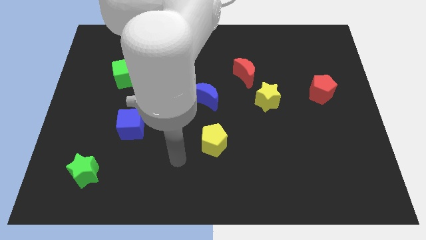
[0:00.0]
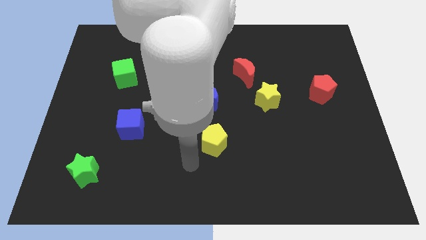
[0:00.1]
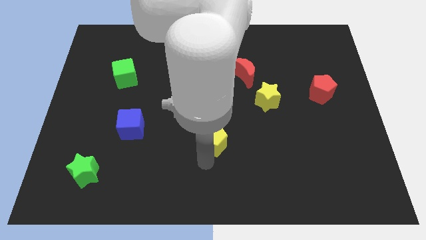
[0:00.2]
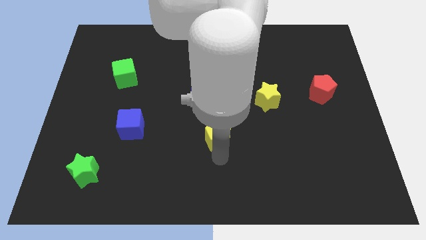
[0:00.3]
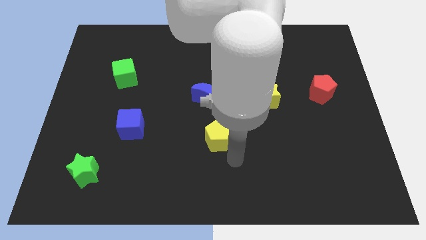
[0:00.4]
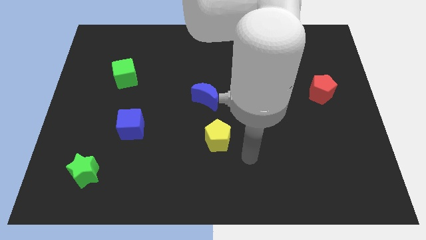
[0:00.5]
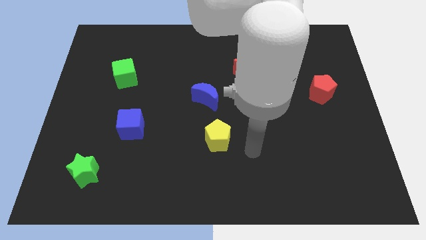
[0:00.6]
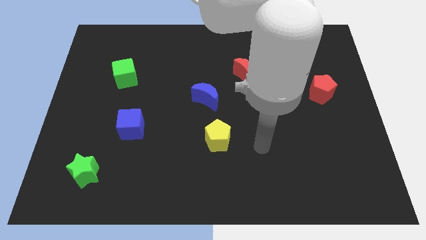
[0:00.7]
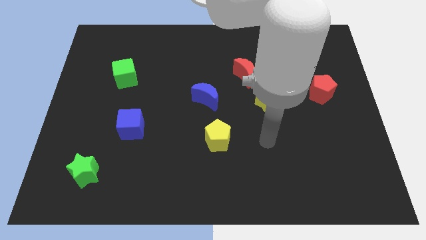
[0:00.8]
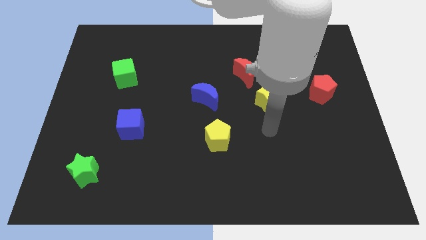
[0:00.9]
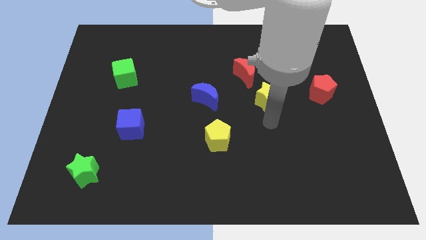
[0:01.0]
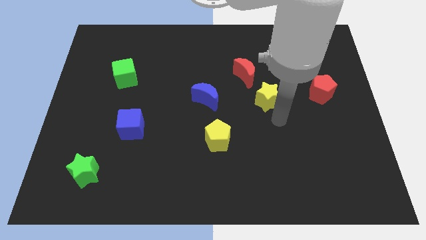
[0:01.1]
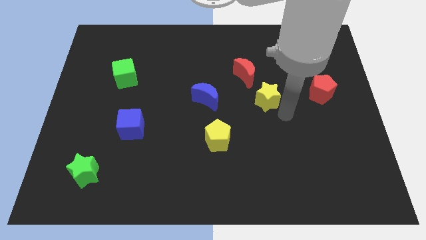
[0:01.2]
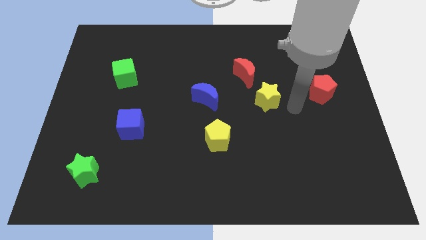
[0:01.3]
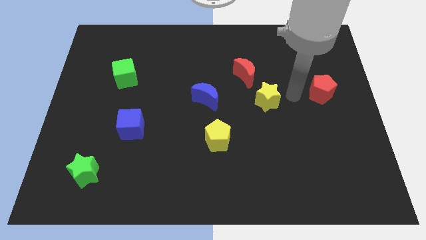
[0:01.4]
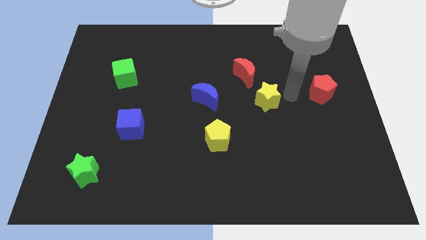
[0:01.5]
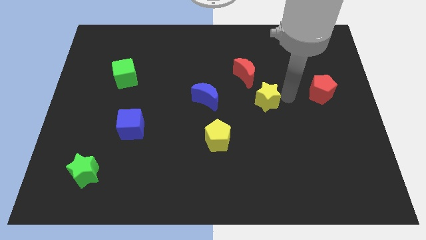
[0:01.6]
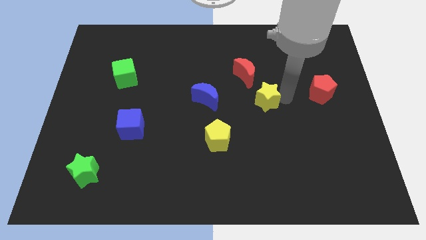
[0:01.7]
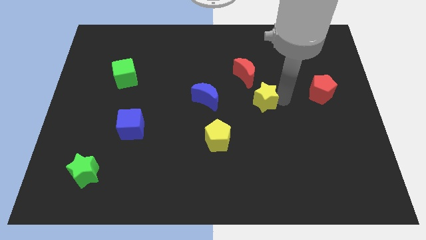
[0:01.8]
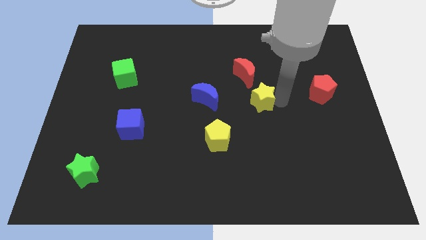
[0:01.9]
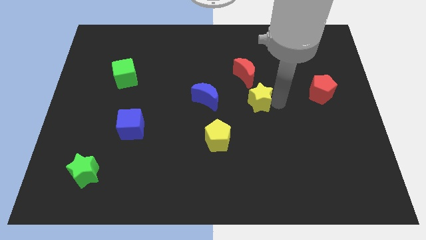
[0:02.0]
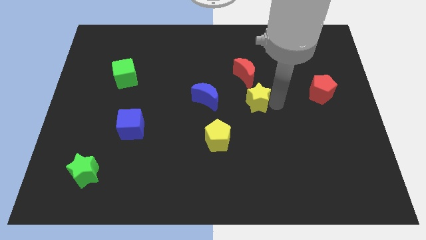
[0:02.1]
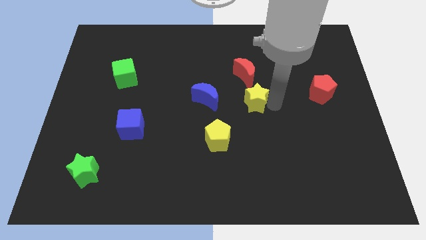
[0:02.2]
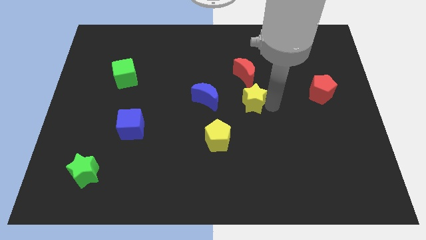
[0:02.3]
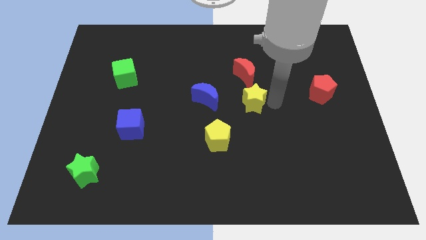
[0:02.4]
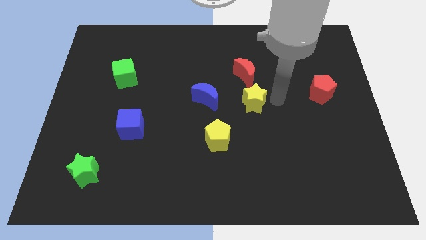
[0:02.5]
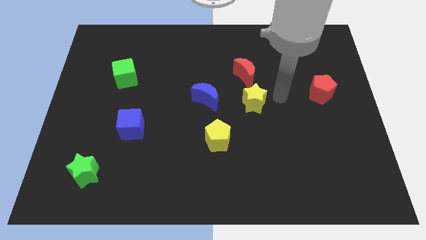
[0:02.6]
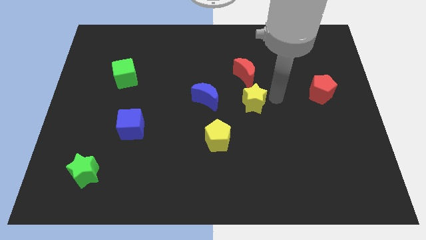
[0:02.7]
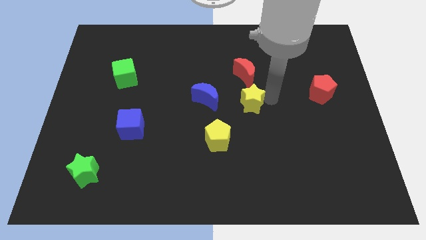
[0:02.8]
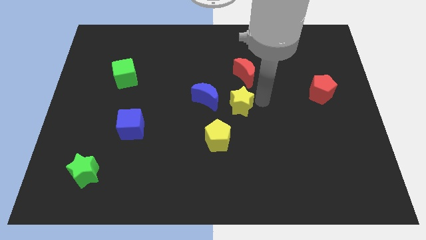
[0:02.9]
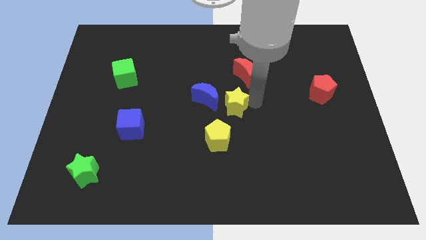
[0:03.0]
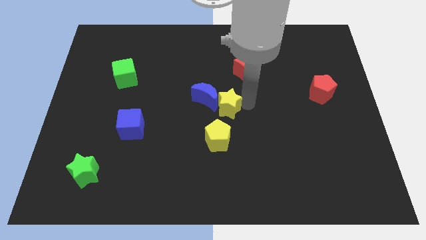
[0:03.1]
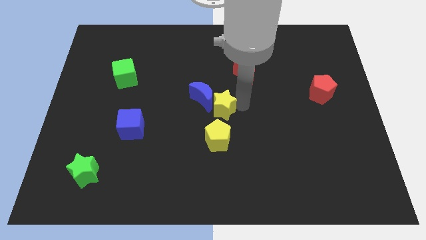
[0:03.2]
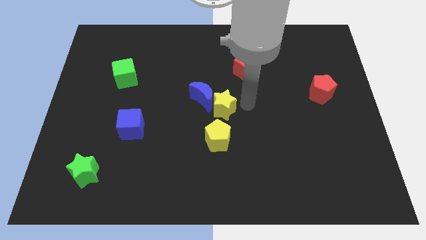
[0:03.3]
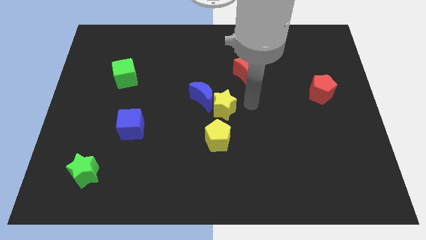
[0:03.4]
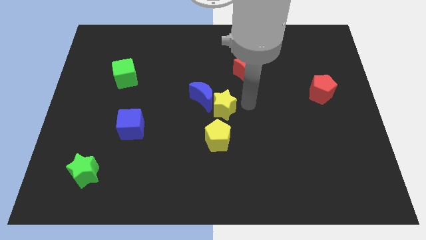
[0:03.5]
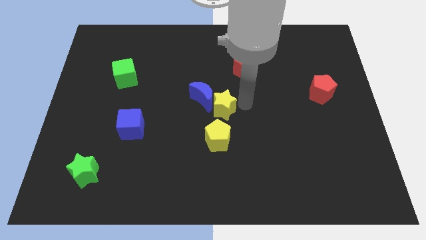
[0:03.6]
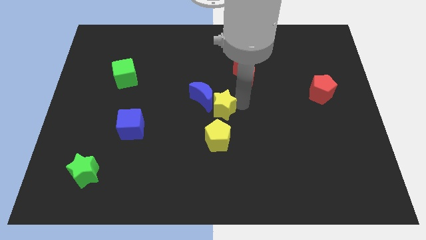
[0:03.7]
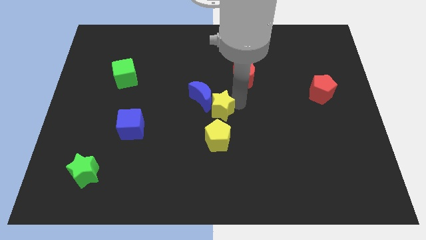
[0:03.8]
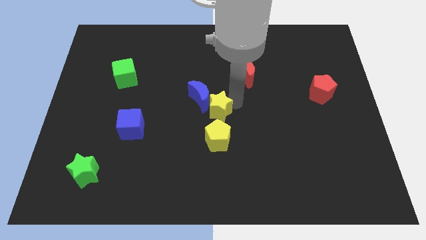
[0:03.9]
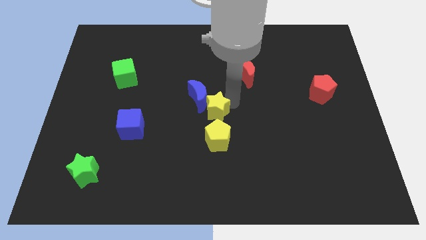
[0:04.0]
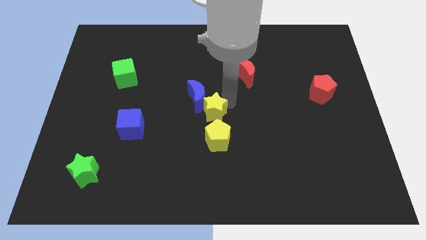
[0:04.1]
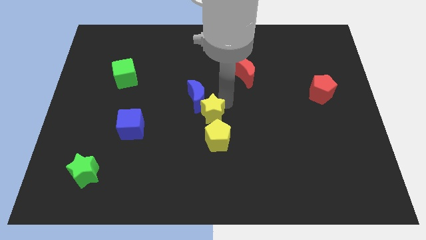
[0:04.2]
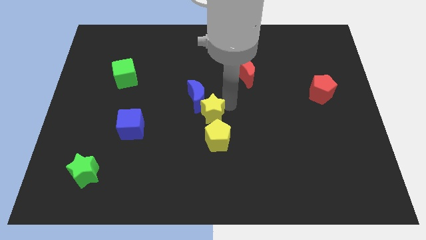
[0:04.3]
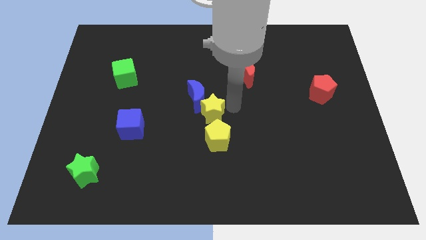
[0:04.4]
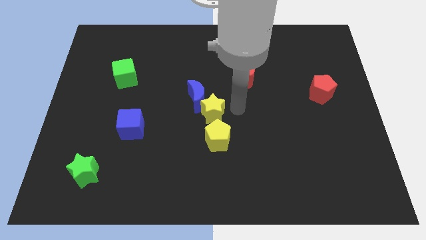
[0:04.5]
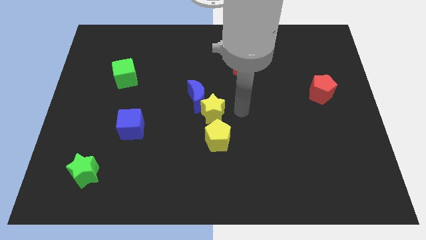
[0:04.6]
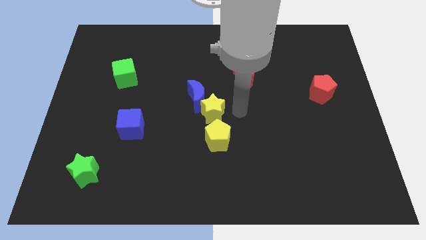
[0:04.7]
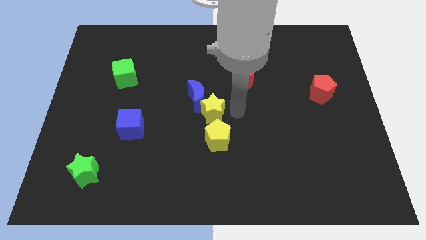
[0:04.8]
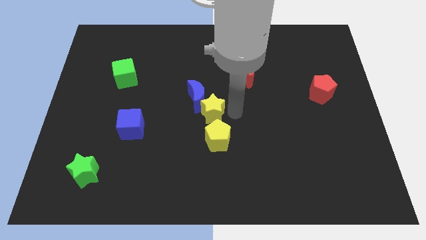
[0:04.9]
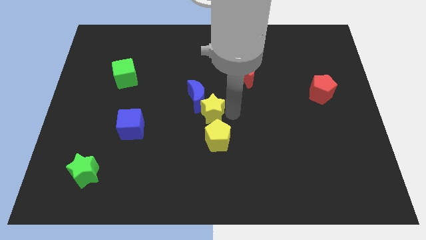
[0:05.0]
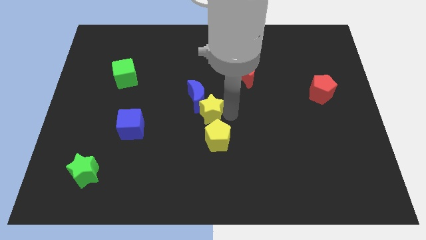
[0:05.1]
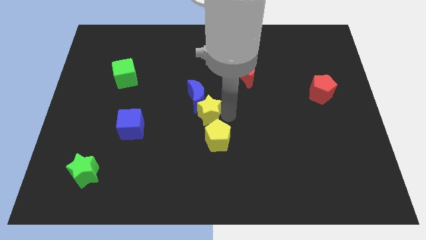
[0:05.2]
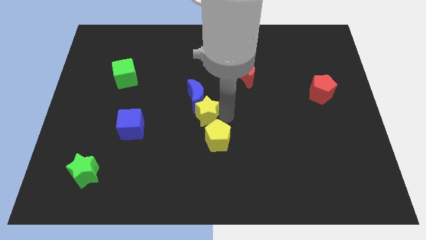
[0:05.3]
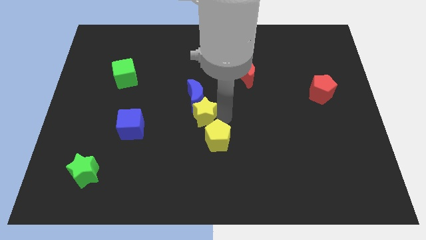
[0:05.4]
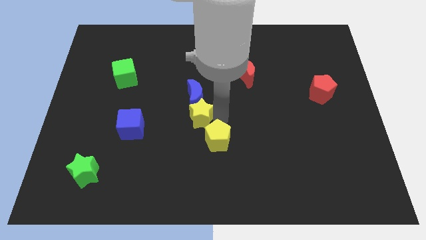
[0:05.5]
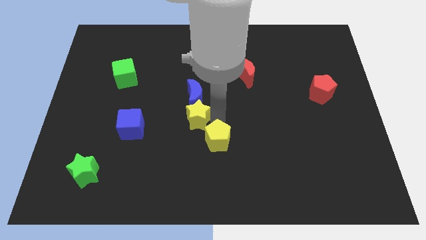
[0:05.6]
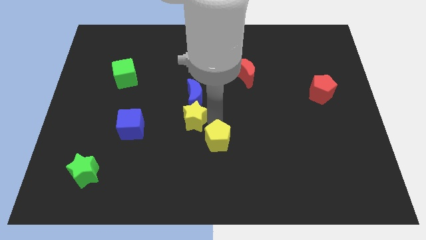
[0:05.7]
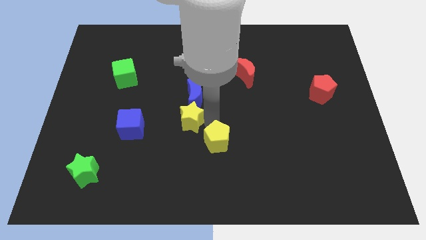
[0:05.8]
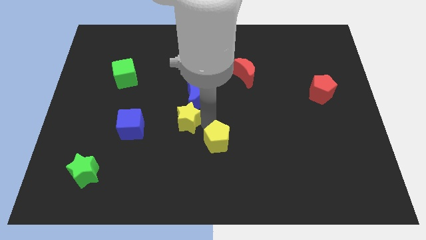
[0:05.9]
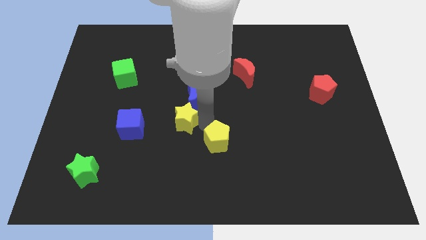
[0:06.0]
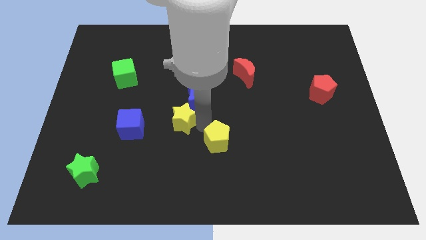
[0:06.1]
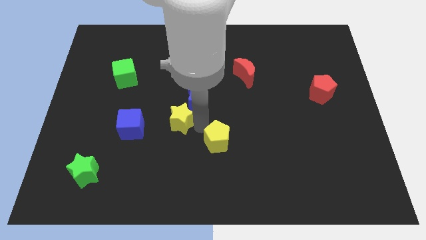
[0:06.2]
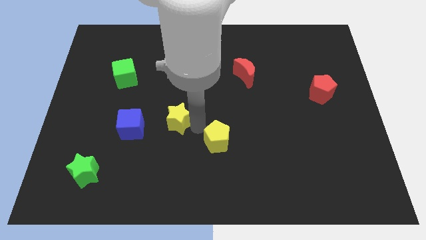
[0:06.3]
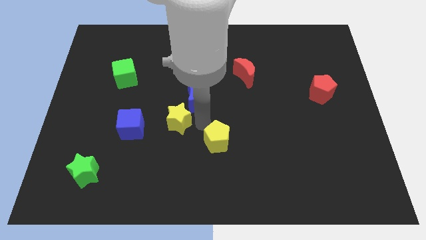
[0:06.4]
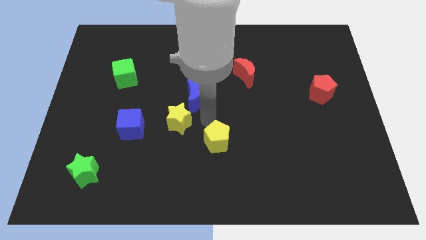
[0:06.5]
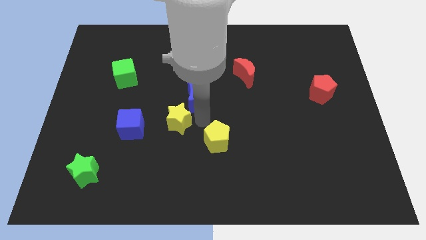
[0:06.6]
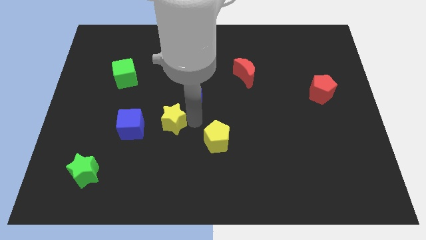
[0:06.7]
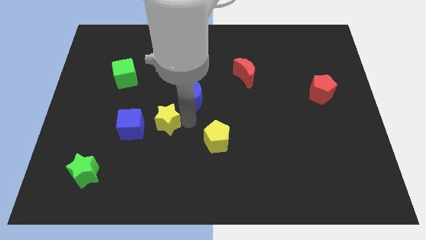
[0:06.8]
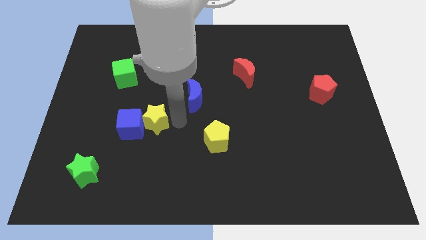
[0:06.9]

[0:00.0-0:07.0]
put the yellow star towards the blue cube

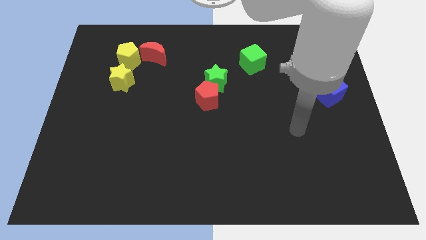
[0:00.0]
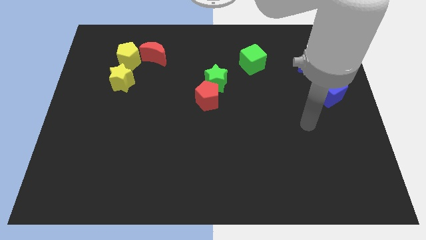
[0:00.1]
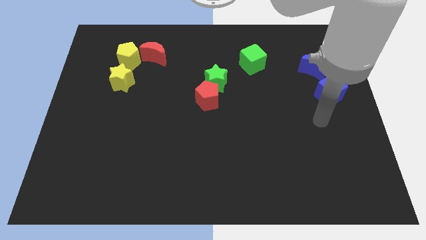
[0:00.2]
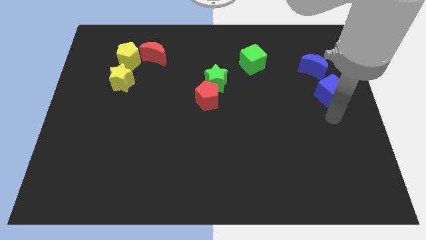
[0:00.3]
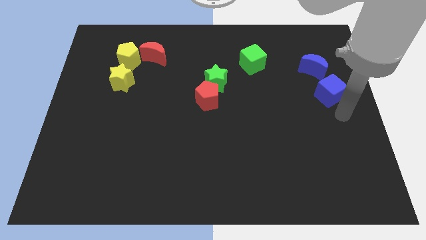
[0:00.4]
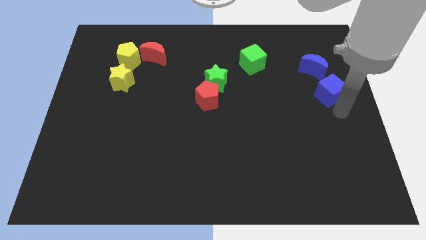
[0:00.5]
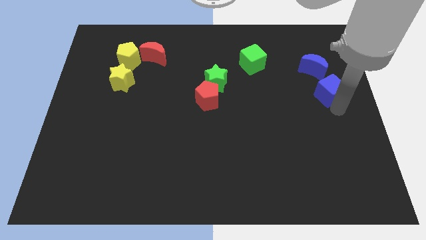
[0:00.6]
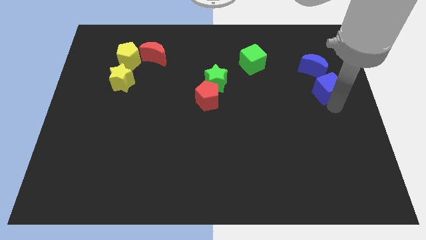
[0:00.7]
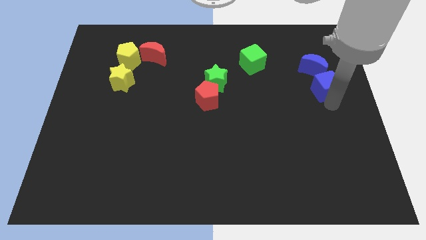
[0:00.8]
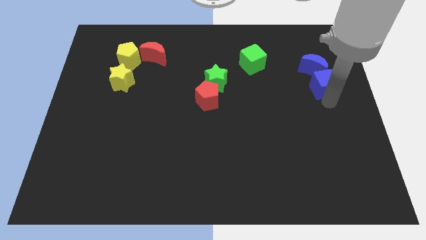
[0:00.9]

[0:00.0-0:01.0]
slide the blue cube towards the blue moon
